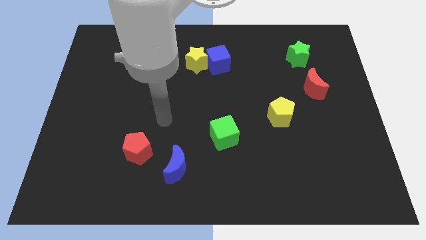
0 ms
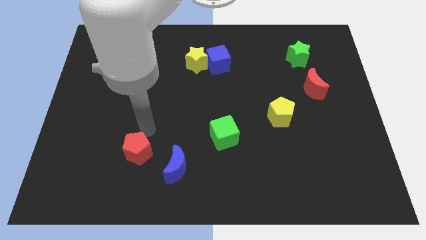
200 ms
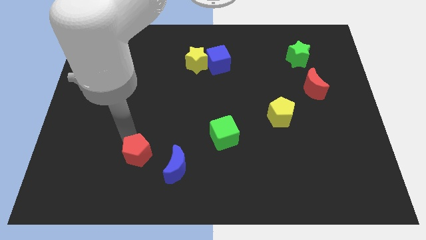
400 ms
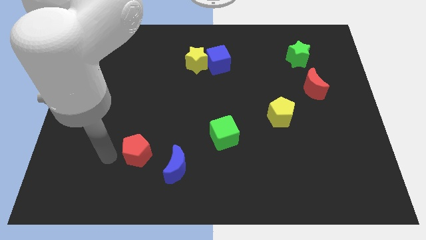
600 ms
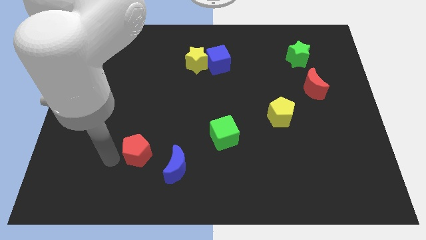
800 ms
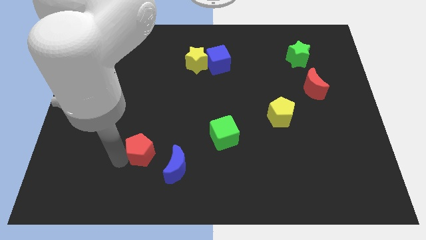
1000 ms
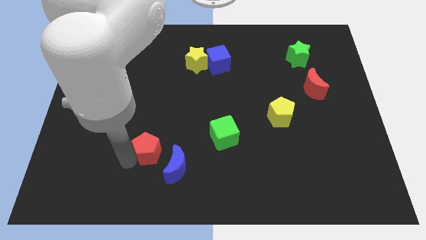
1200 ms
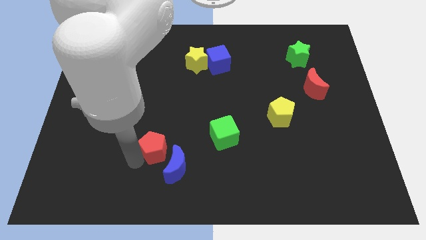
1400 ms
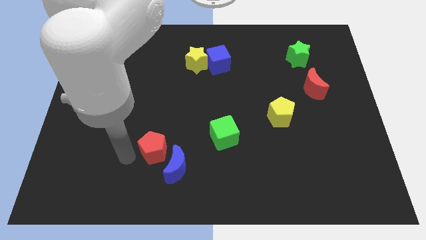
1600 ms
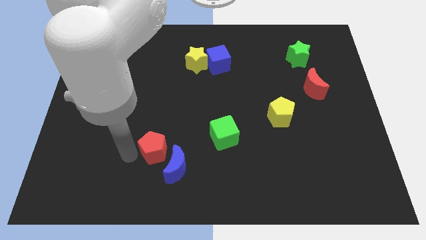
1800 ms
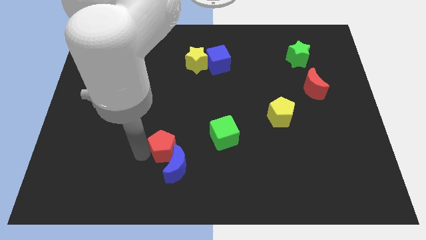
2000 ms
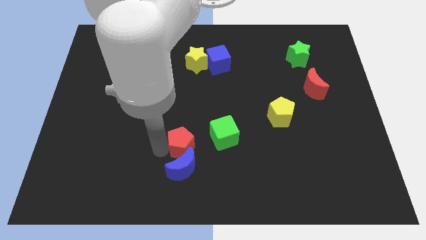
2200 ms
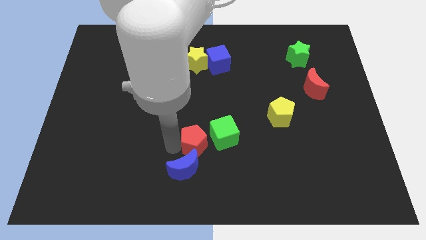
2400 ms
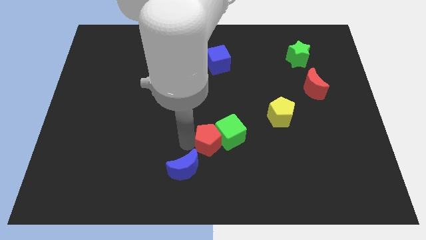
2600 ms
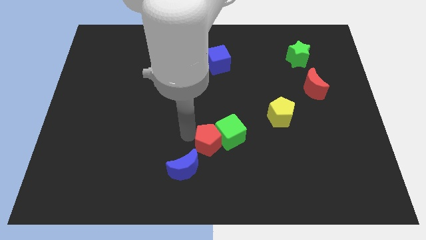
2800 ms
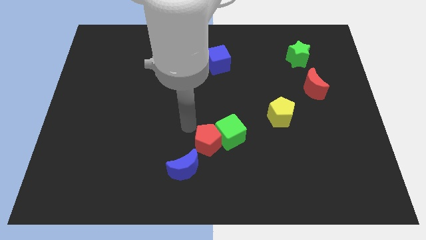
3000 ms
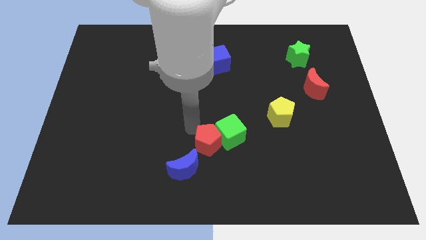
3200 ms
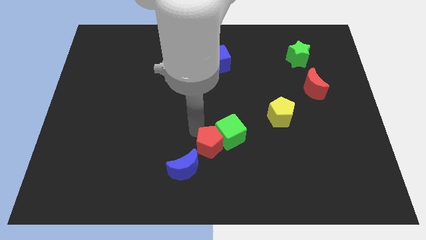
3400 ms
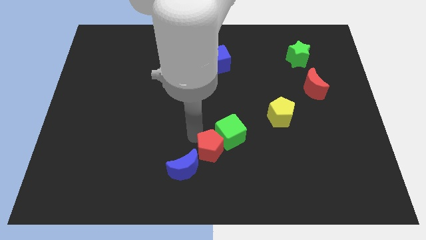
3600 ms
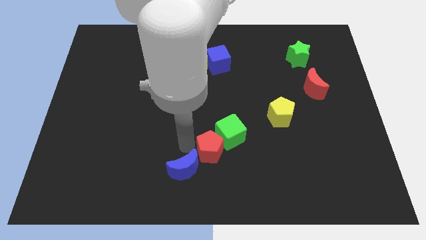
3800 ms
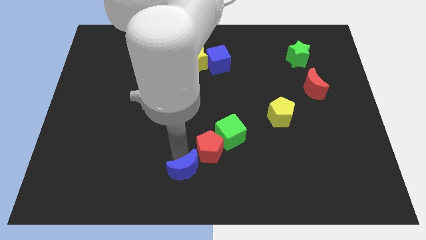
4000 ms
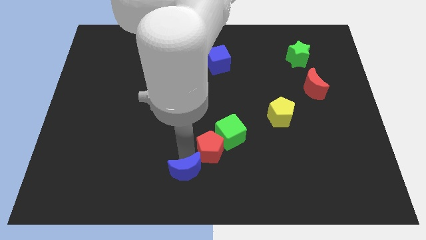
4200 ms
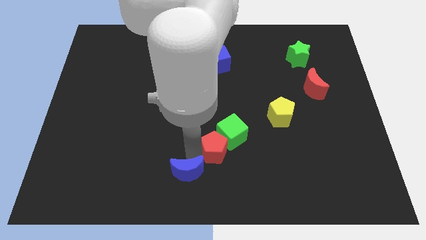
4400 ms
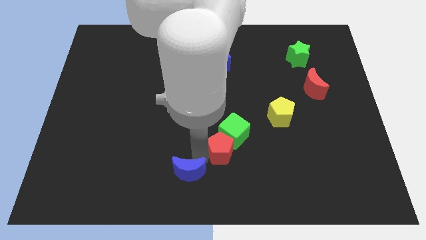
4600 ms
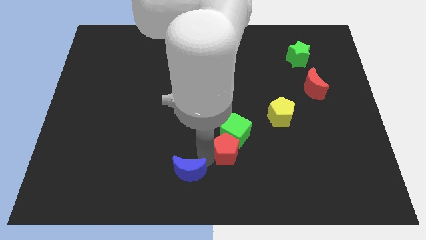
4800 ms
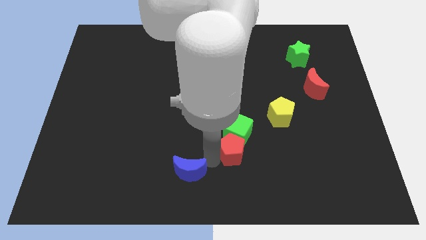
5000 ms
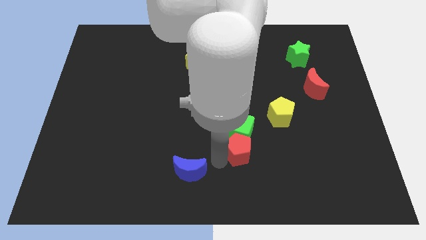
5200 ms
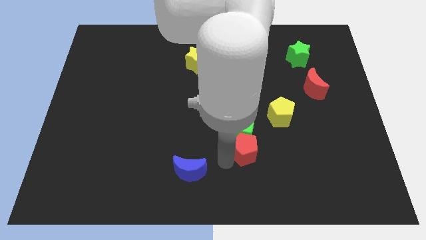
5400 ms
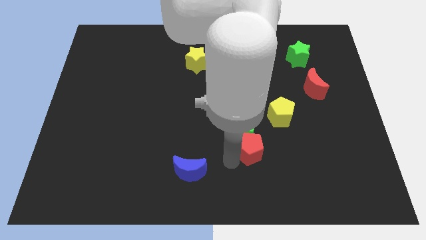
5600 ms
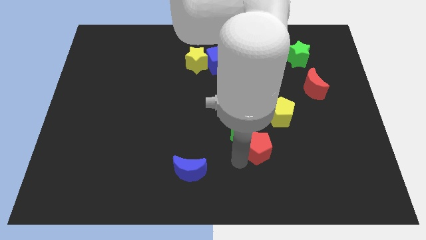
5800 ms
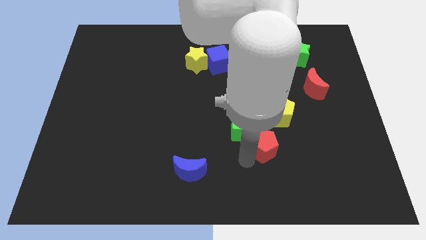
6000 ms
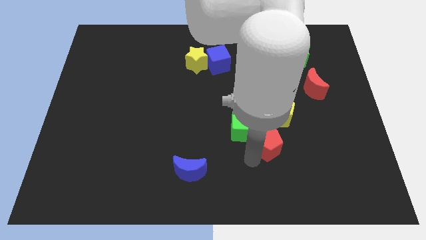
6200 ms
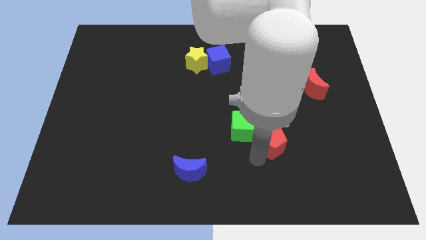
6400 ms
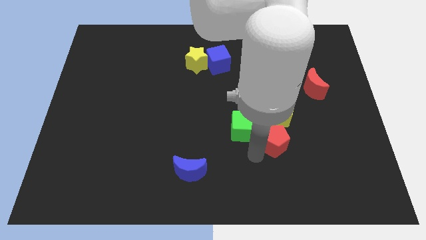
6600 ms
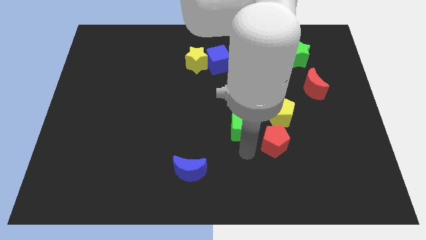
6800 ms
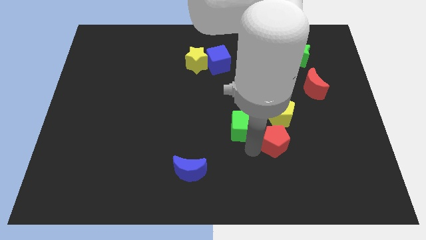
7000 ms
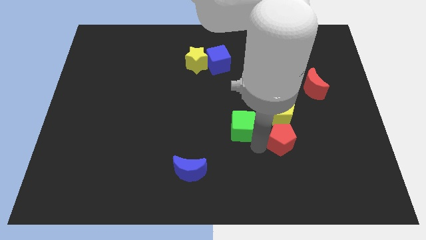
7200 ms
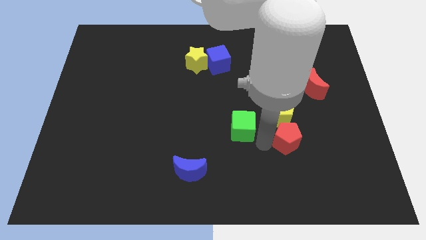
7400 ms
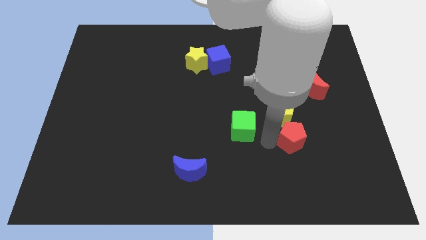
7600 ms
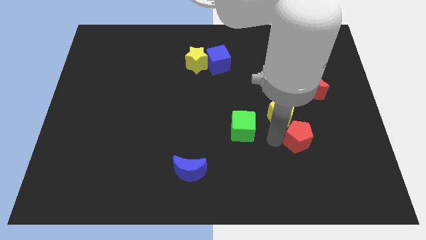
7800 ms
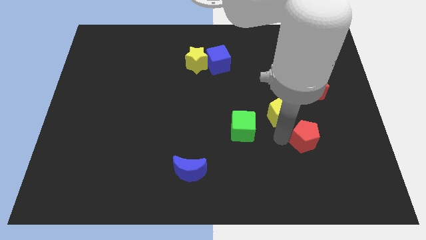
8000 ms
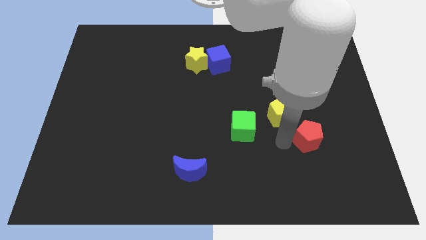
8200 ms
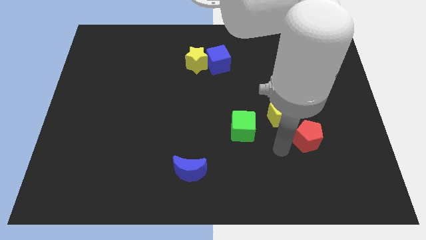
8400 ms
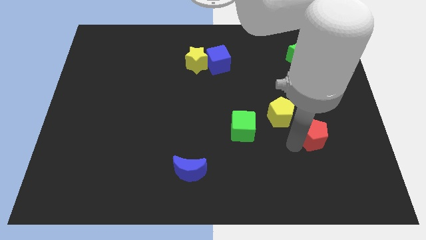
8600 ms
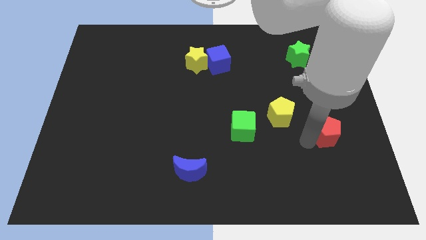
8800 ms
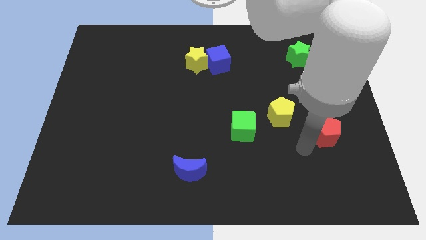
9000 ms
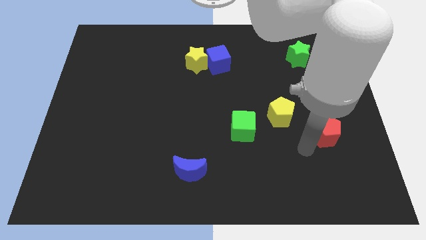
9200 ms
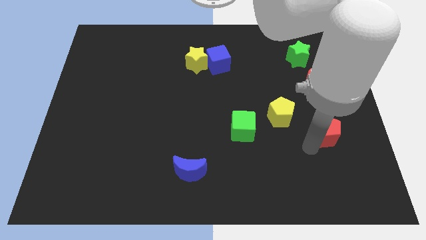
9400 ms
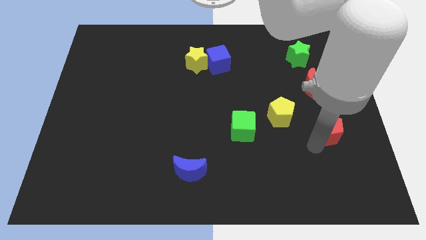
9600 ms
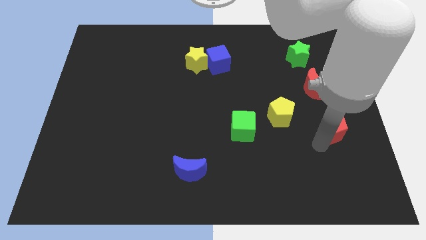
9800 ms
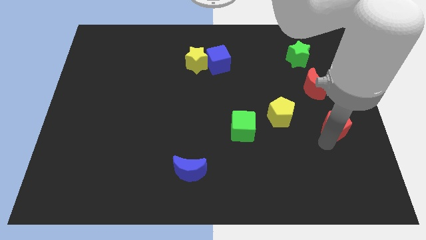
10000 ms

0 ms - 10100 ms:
push the red pentagon to the right side of the board

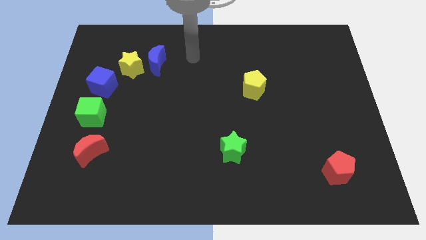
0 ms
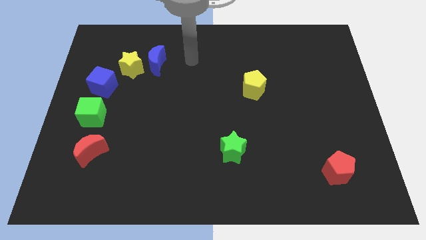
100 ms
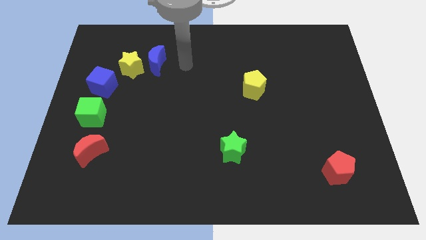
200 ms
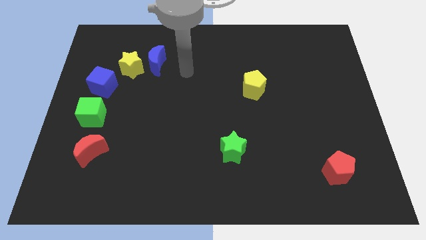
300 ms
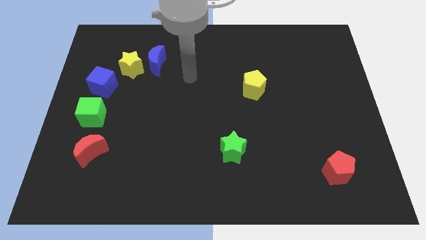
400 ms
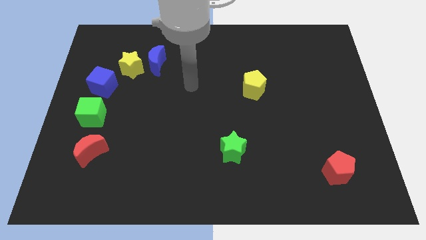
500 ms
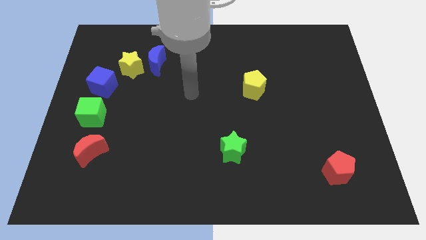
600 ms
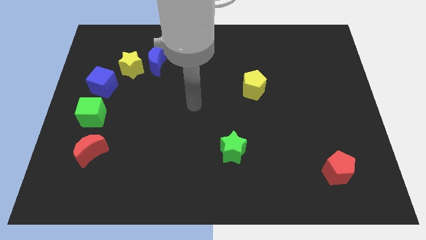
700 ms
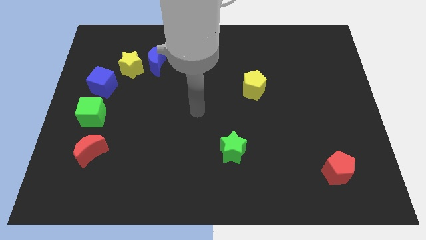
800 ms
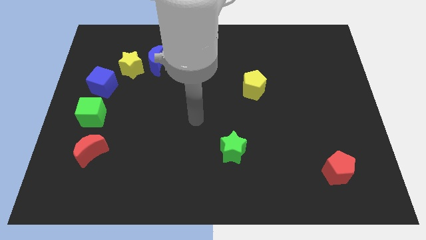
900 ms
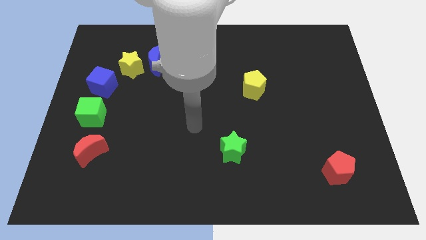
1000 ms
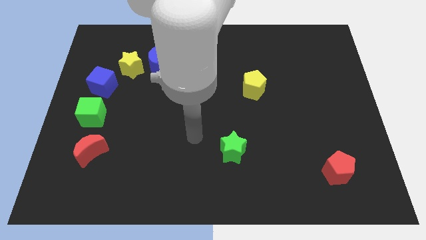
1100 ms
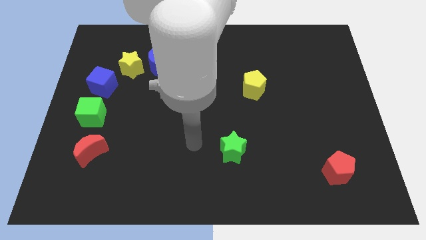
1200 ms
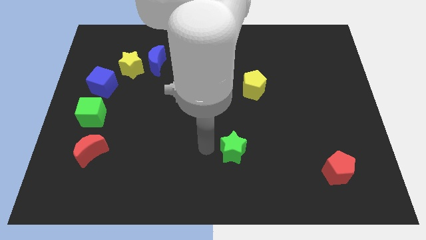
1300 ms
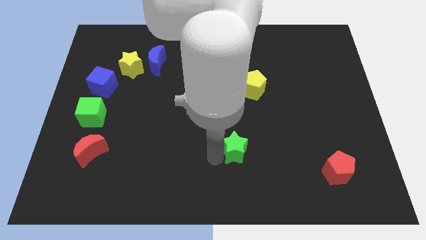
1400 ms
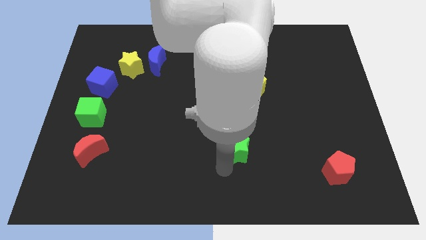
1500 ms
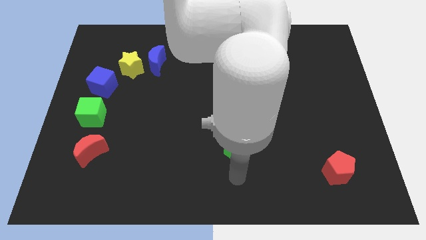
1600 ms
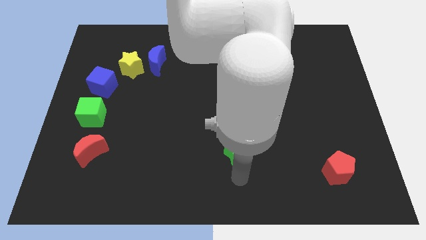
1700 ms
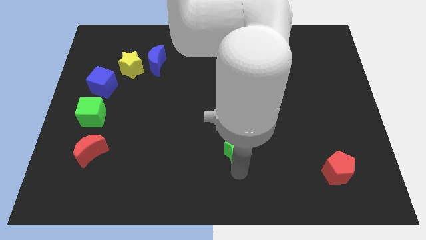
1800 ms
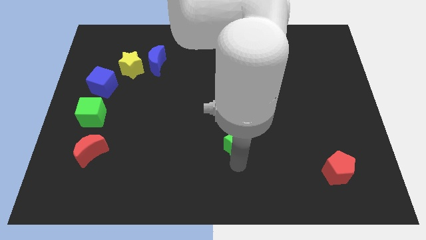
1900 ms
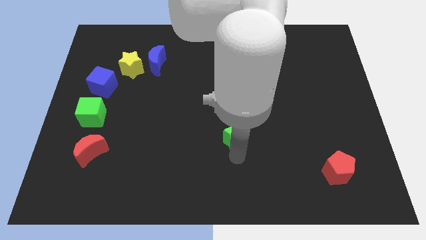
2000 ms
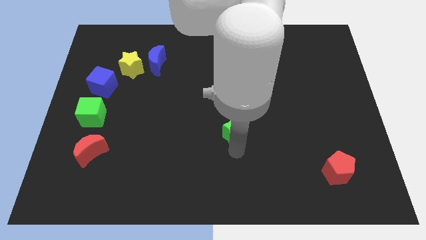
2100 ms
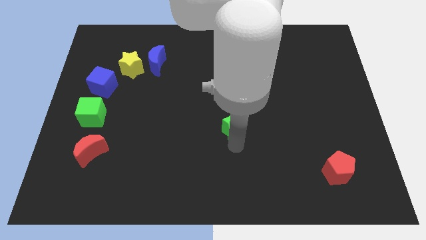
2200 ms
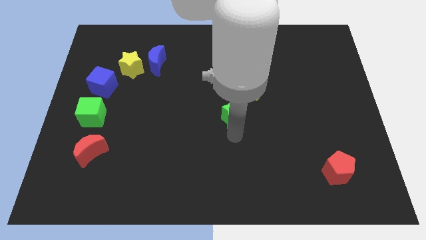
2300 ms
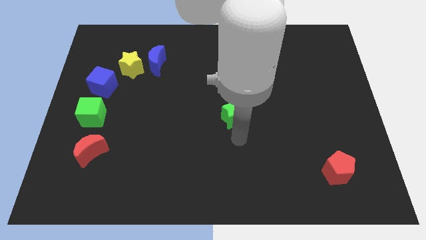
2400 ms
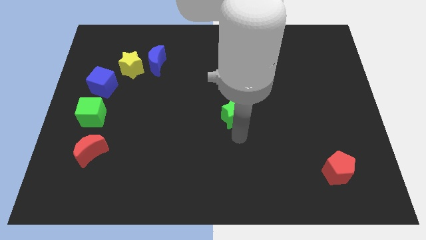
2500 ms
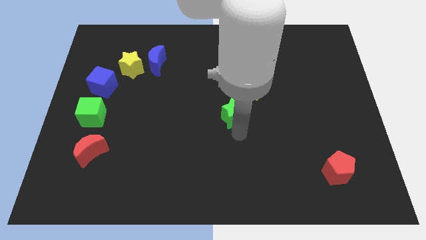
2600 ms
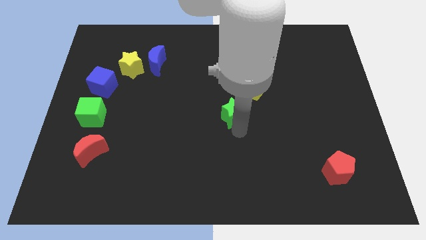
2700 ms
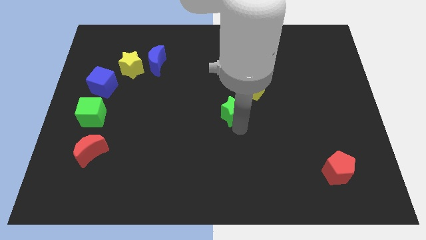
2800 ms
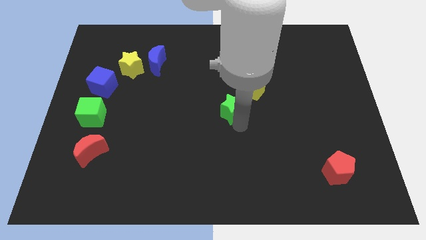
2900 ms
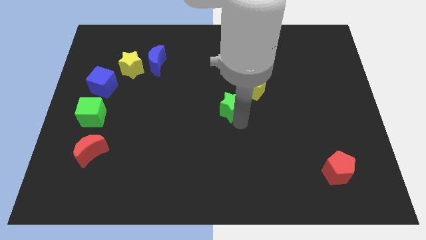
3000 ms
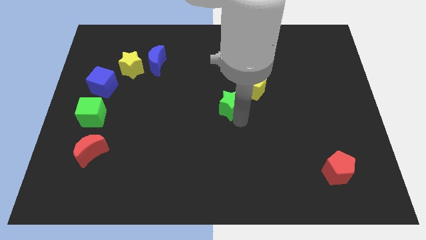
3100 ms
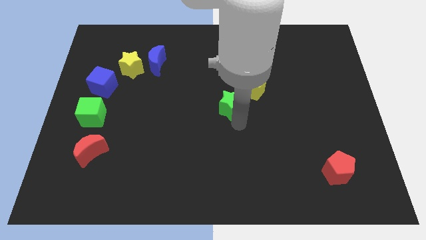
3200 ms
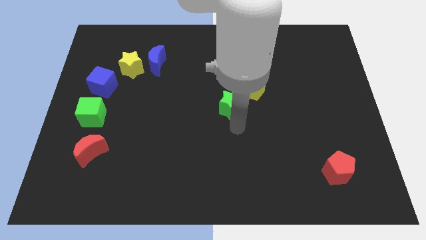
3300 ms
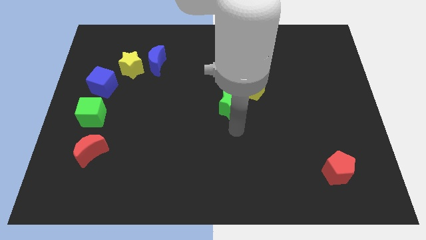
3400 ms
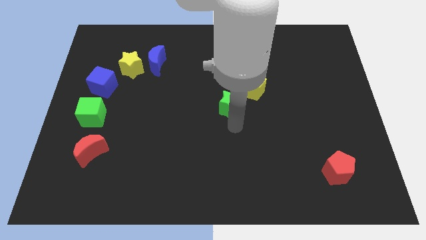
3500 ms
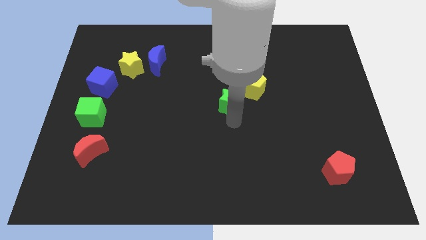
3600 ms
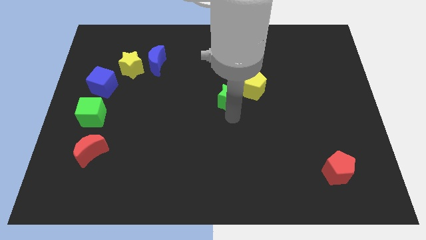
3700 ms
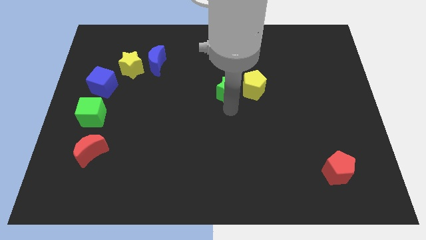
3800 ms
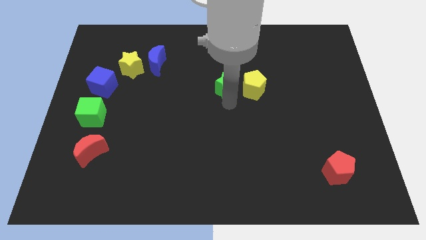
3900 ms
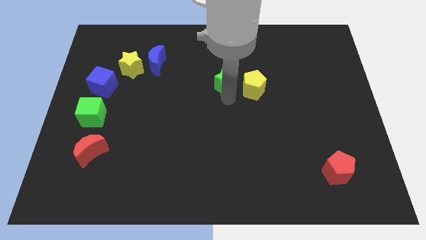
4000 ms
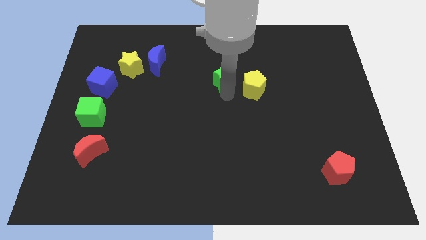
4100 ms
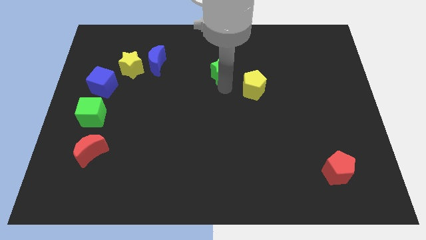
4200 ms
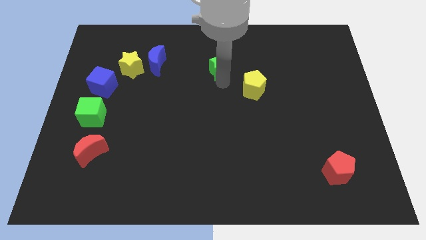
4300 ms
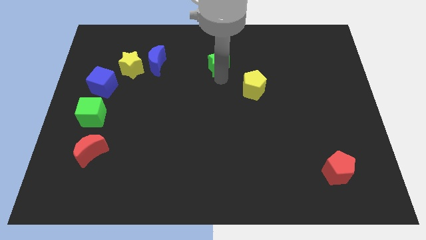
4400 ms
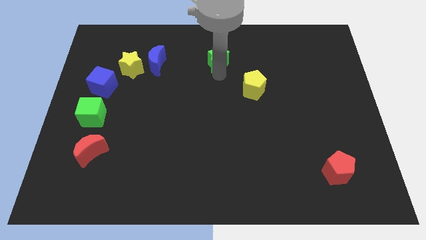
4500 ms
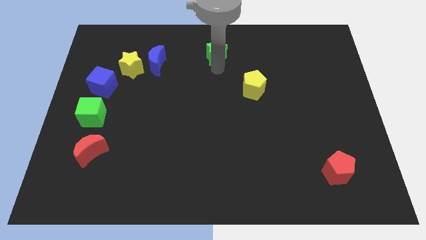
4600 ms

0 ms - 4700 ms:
push the green star to the top side
